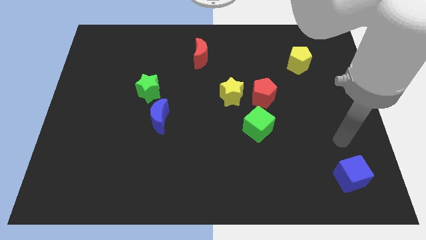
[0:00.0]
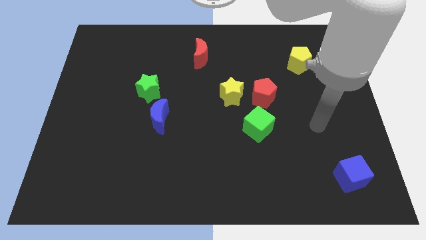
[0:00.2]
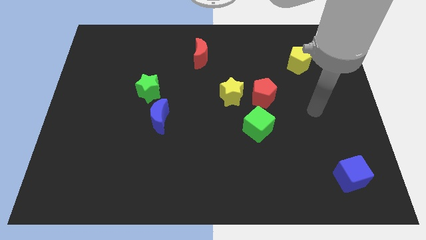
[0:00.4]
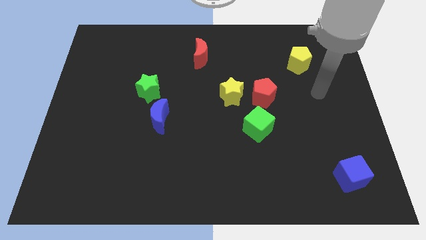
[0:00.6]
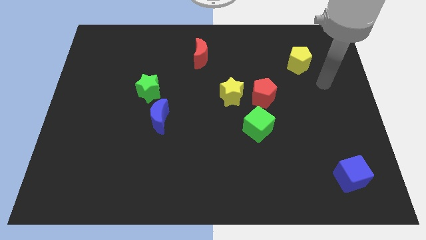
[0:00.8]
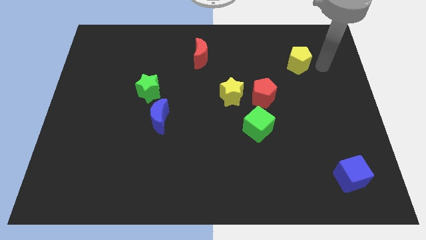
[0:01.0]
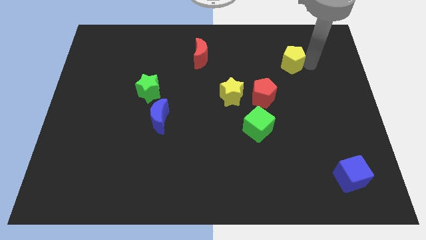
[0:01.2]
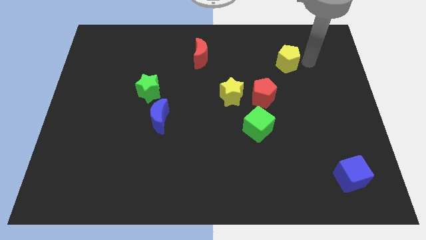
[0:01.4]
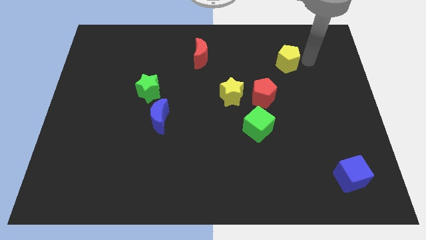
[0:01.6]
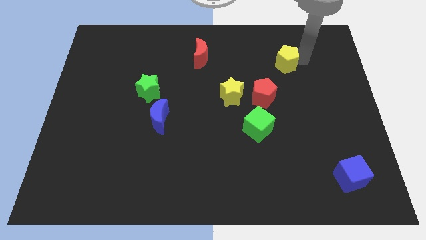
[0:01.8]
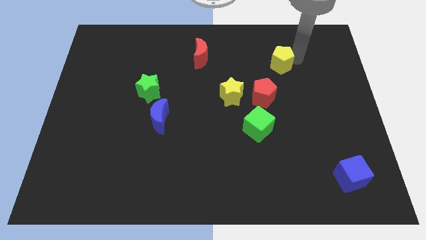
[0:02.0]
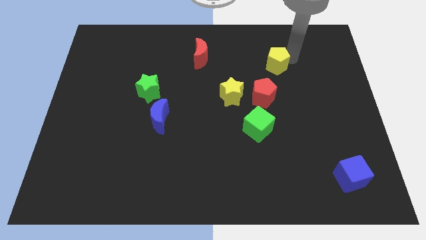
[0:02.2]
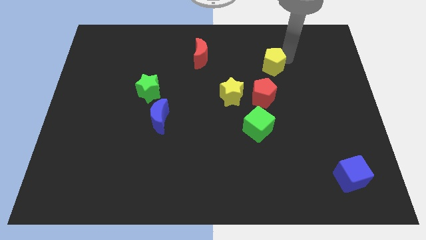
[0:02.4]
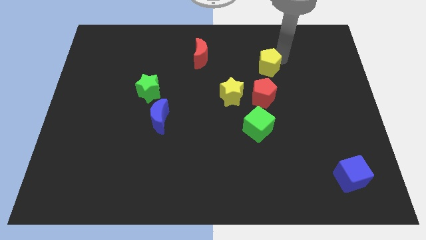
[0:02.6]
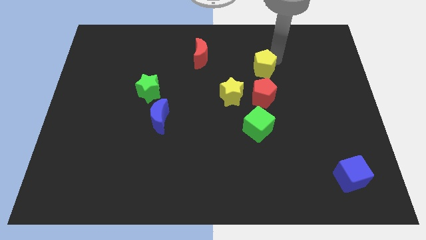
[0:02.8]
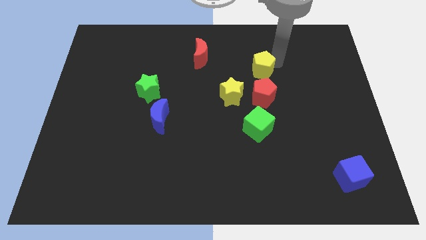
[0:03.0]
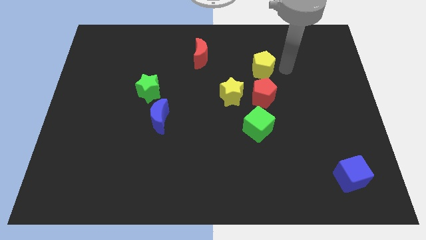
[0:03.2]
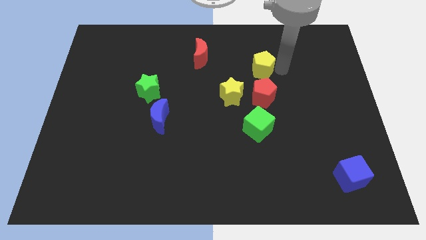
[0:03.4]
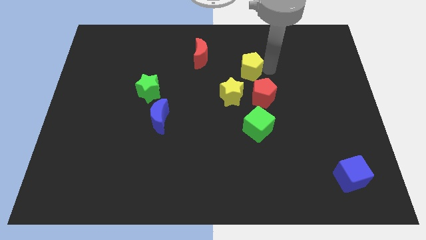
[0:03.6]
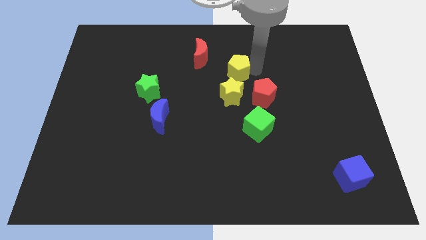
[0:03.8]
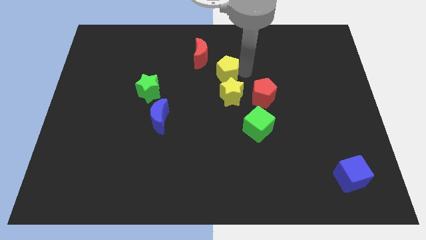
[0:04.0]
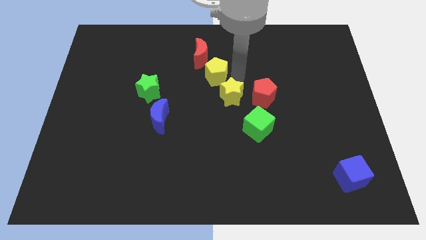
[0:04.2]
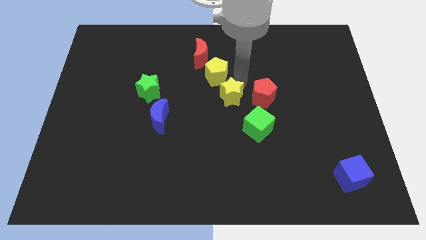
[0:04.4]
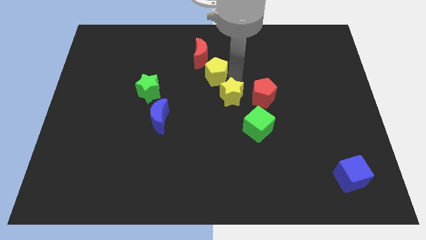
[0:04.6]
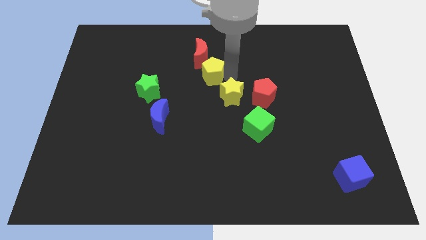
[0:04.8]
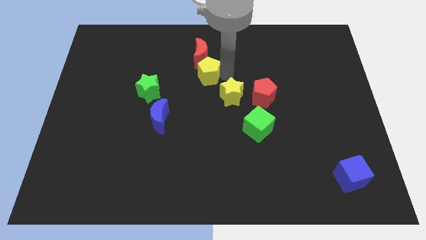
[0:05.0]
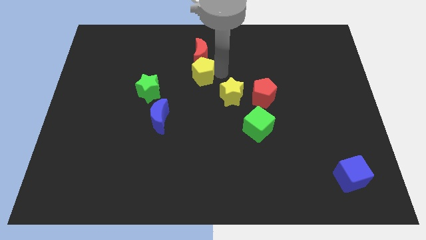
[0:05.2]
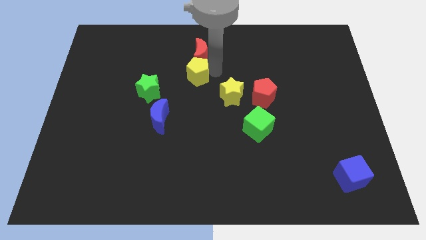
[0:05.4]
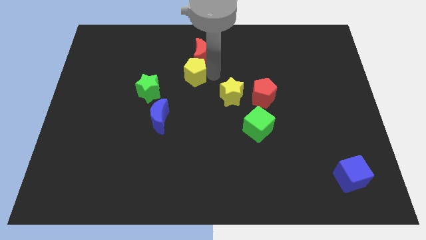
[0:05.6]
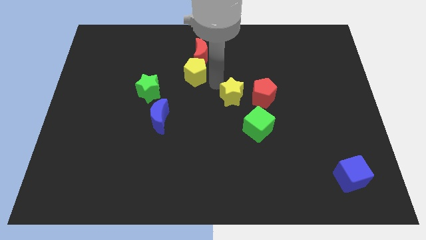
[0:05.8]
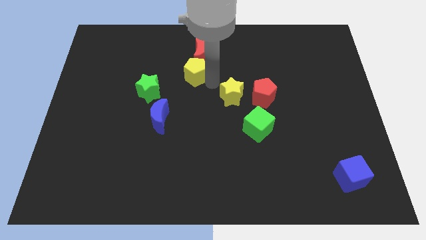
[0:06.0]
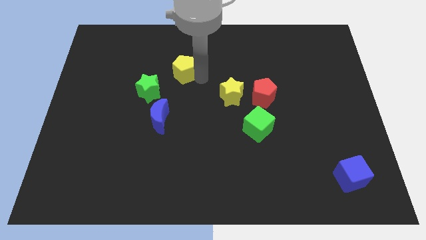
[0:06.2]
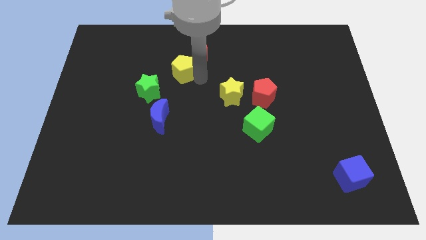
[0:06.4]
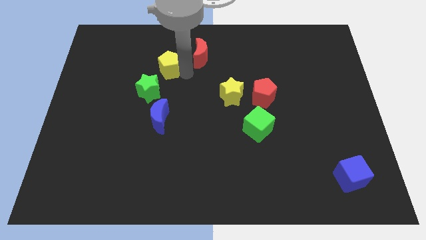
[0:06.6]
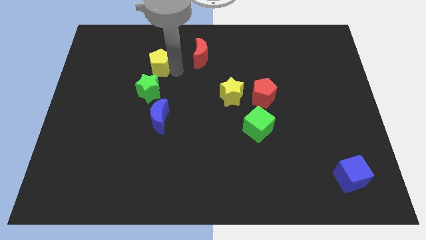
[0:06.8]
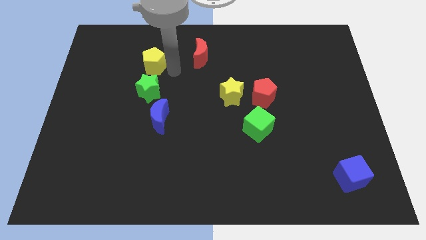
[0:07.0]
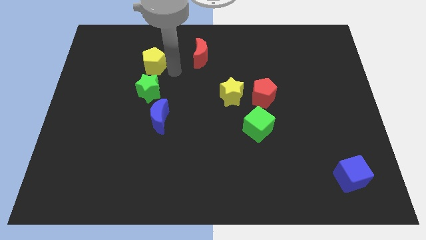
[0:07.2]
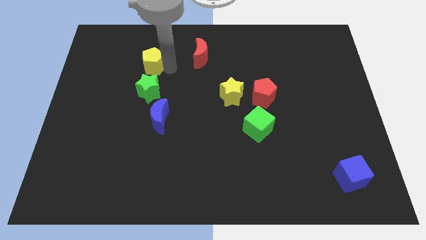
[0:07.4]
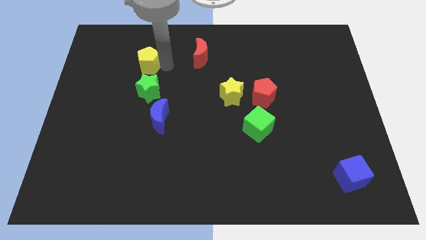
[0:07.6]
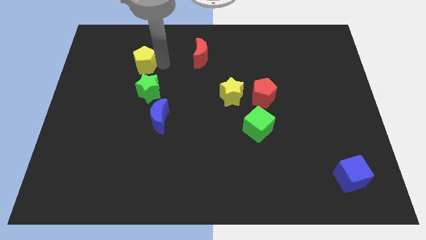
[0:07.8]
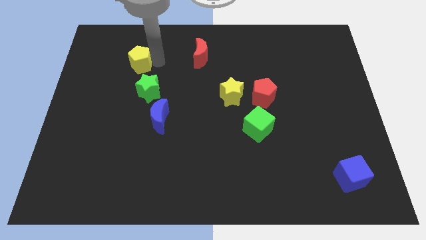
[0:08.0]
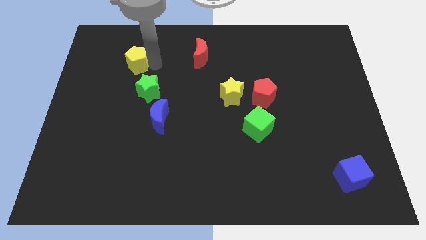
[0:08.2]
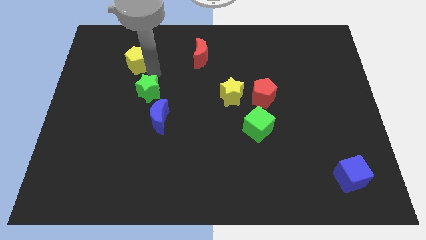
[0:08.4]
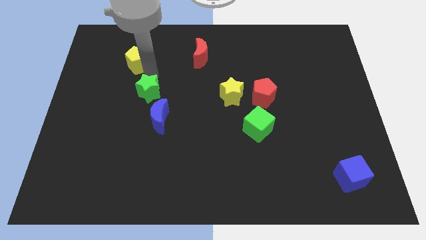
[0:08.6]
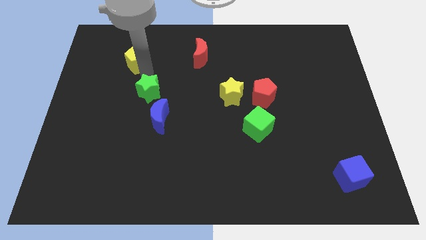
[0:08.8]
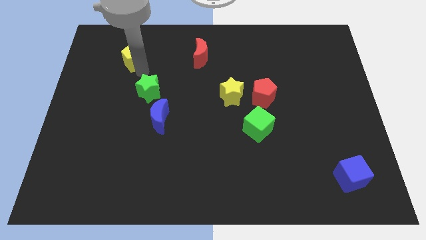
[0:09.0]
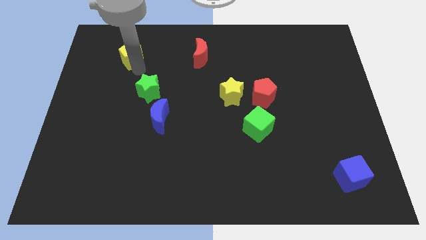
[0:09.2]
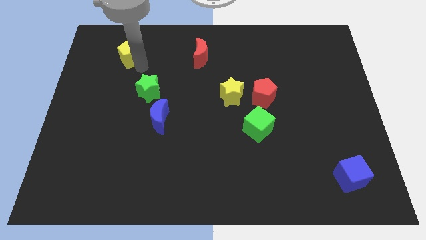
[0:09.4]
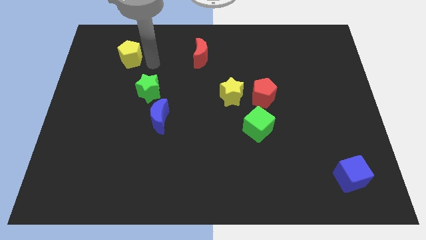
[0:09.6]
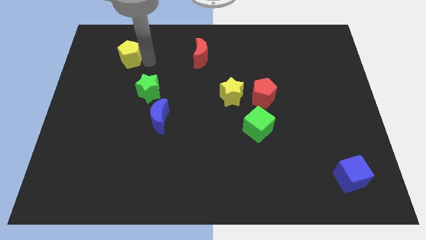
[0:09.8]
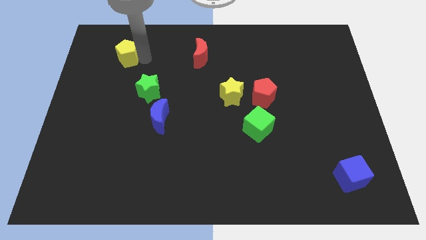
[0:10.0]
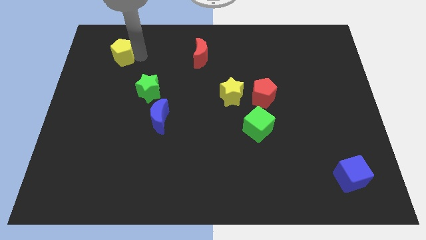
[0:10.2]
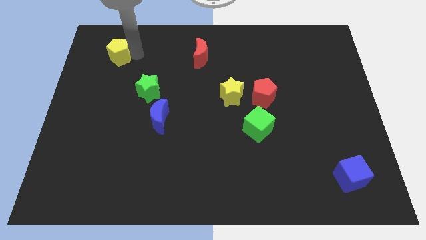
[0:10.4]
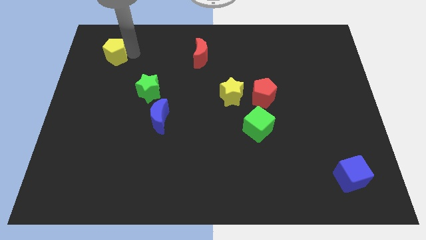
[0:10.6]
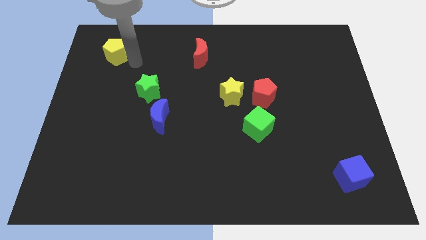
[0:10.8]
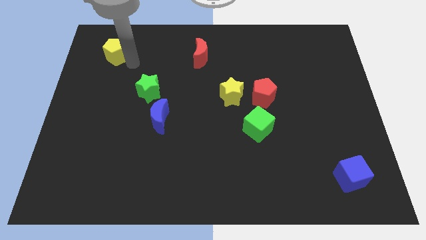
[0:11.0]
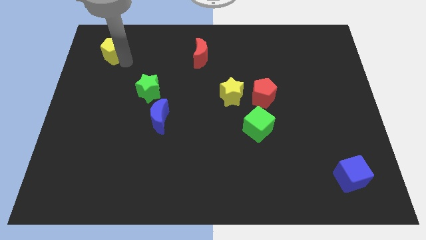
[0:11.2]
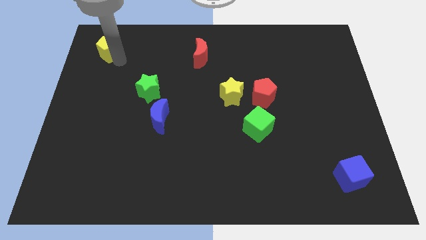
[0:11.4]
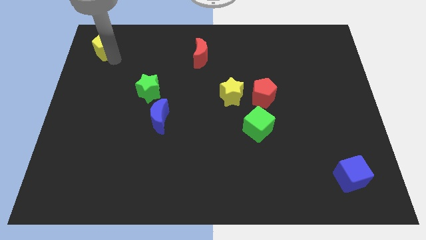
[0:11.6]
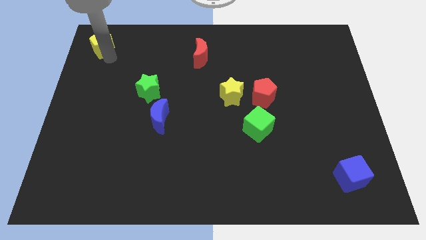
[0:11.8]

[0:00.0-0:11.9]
slide the yellow pentagon to the top left

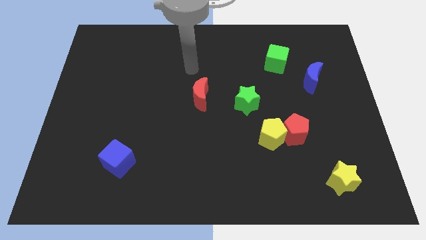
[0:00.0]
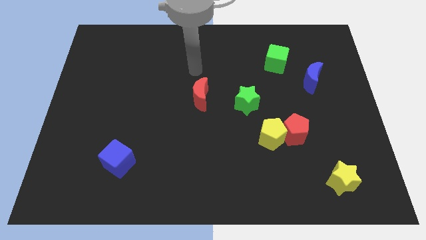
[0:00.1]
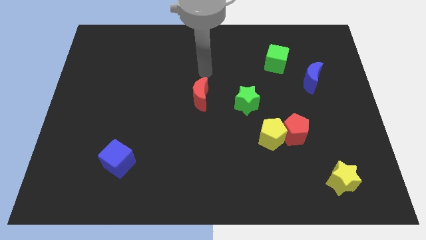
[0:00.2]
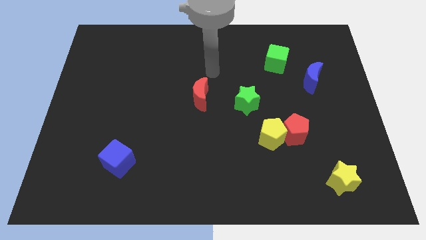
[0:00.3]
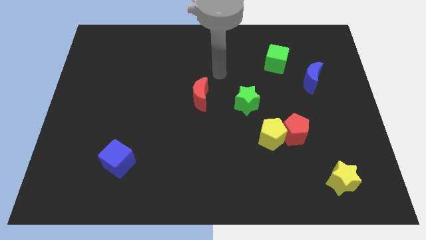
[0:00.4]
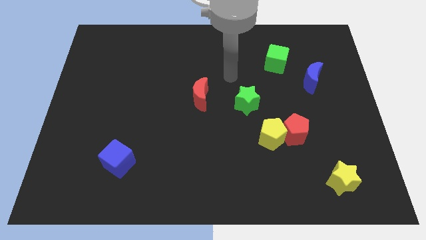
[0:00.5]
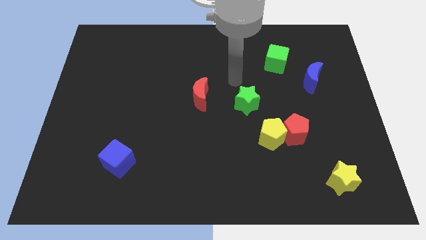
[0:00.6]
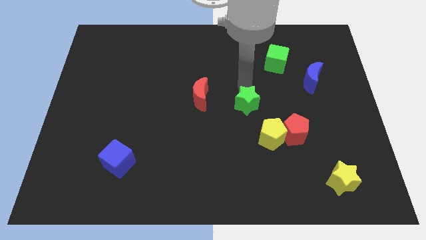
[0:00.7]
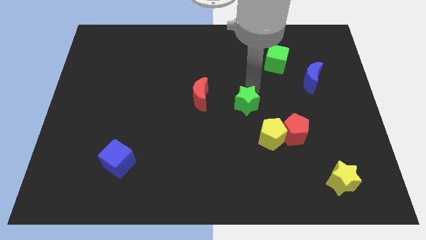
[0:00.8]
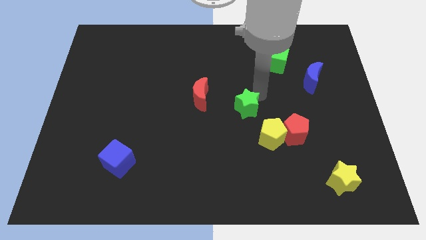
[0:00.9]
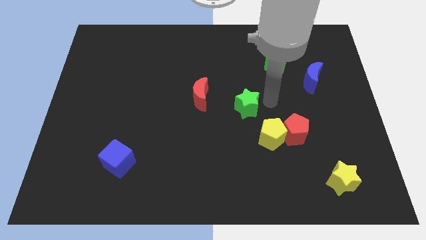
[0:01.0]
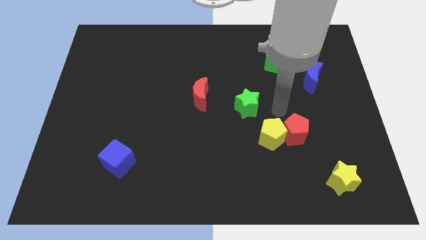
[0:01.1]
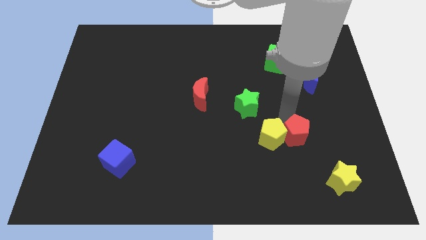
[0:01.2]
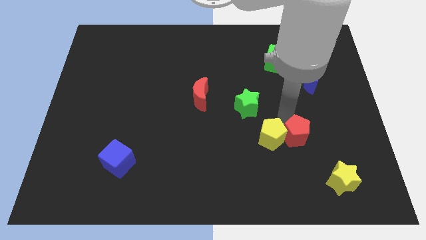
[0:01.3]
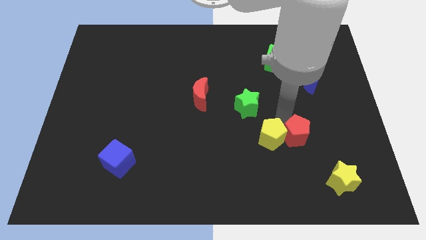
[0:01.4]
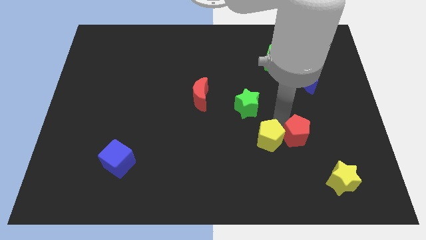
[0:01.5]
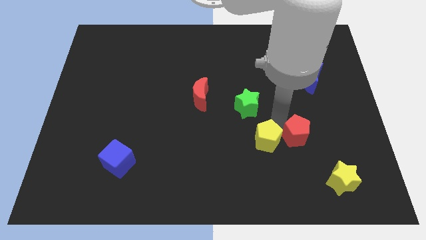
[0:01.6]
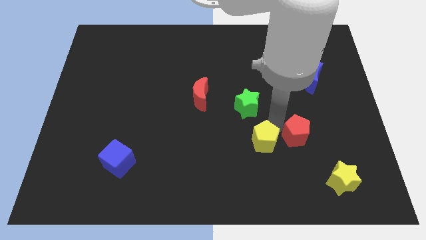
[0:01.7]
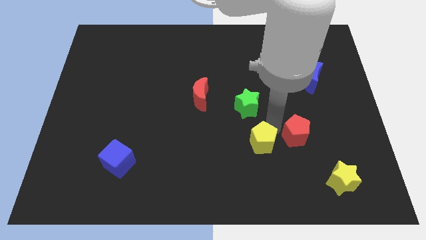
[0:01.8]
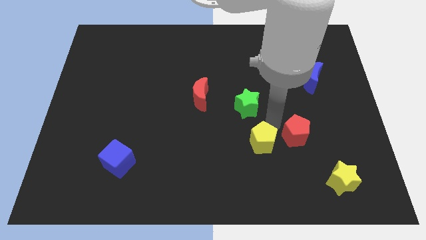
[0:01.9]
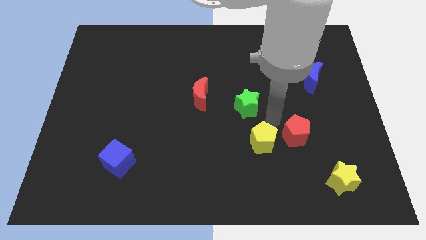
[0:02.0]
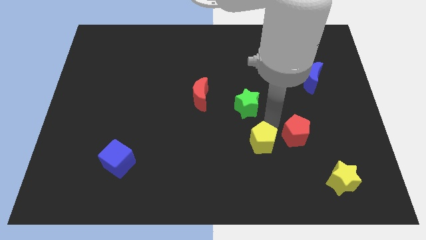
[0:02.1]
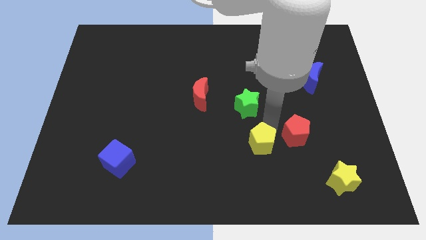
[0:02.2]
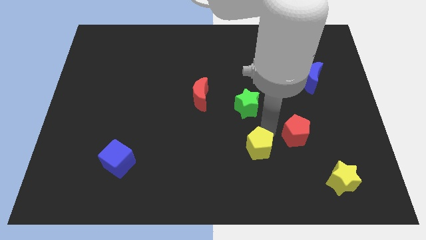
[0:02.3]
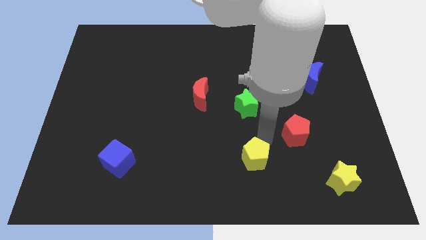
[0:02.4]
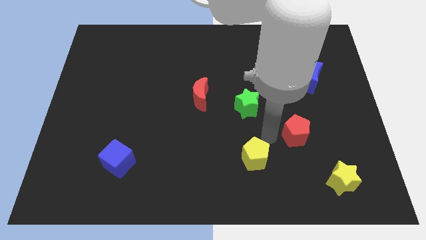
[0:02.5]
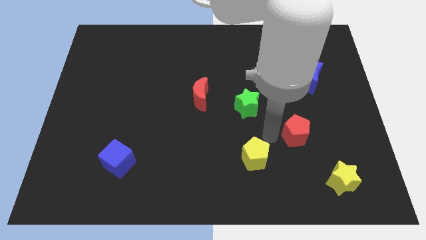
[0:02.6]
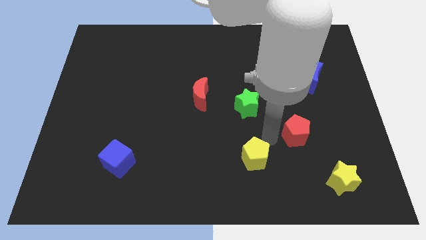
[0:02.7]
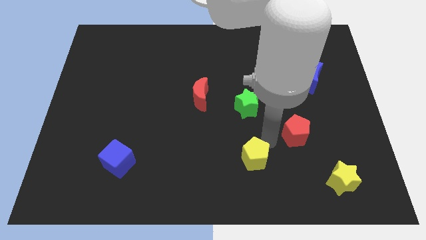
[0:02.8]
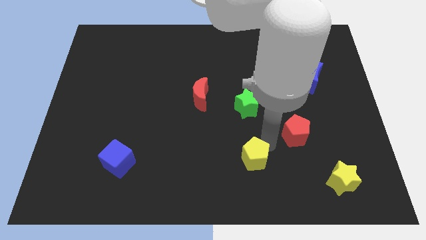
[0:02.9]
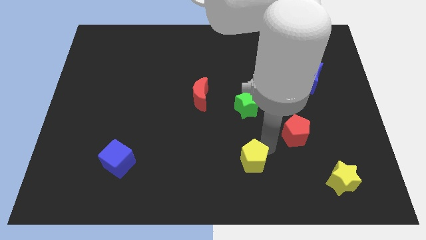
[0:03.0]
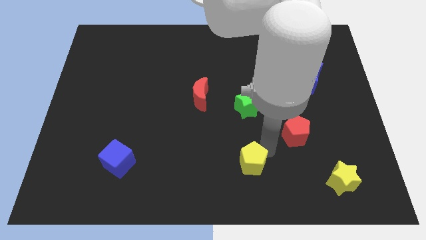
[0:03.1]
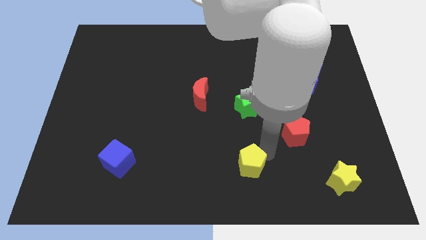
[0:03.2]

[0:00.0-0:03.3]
push the yellow pentagon to the bottom side
